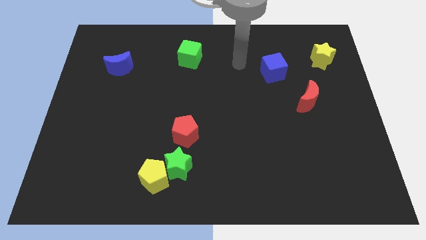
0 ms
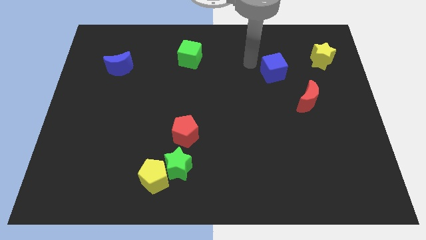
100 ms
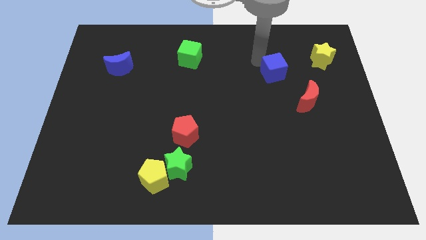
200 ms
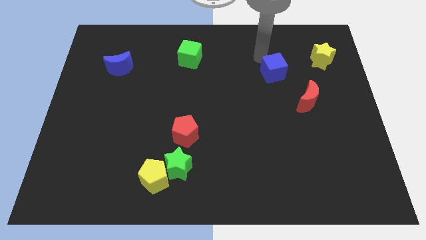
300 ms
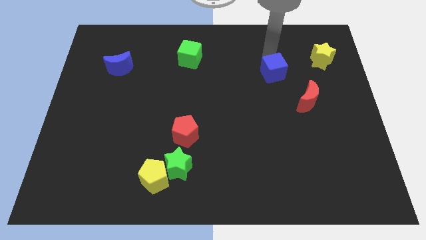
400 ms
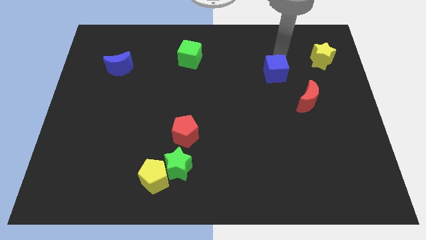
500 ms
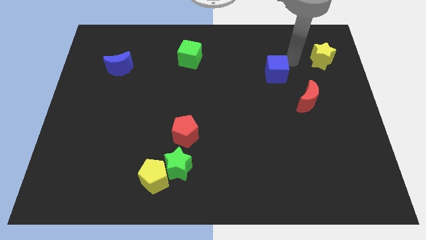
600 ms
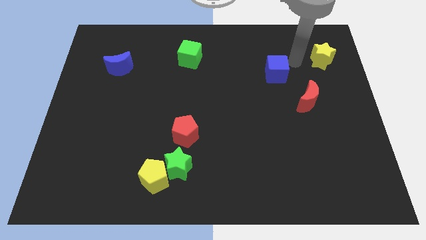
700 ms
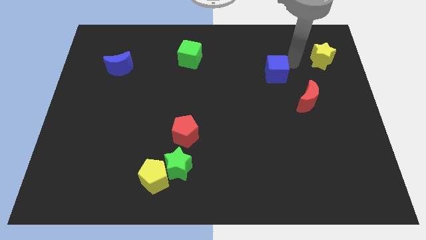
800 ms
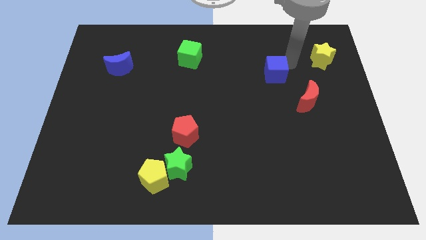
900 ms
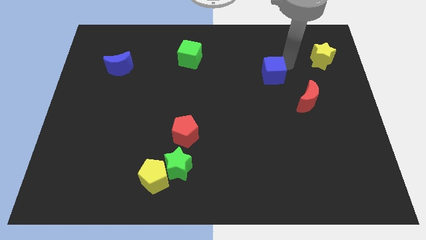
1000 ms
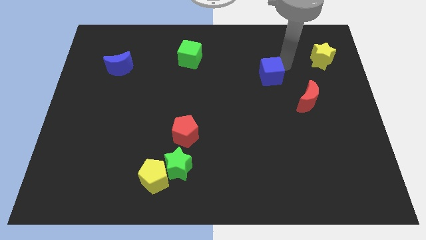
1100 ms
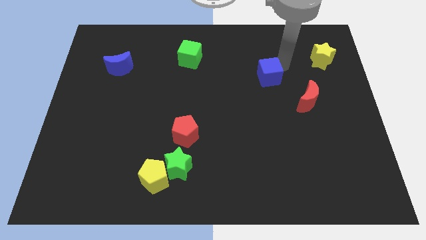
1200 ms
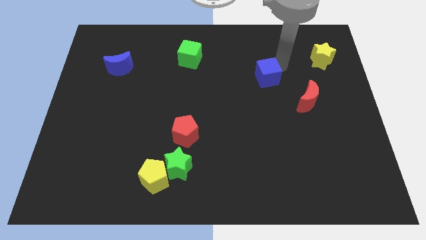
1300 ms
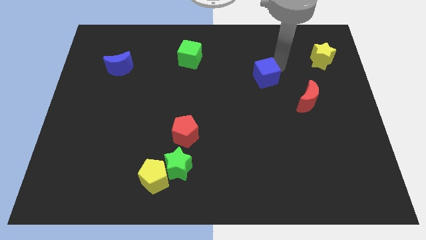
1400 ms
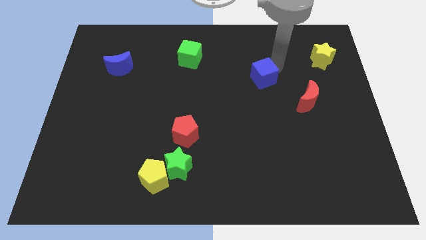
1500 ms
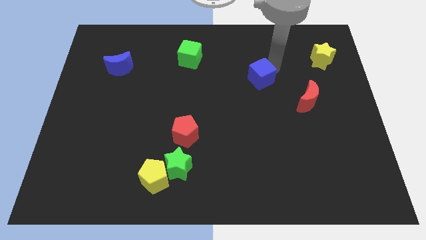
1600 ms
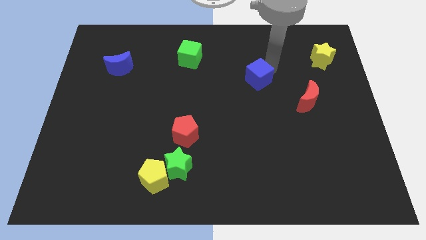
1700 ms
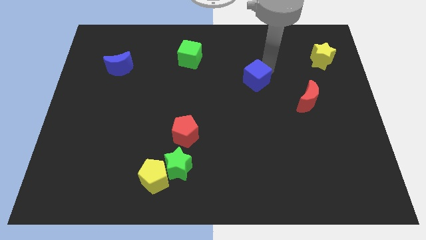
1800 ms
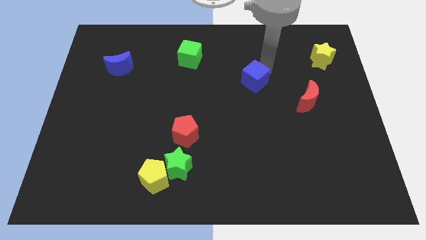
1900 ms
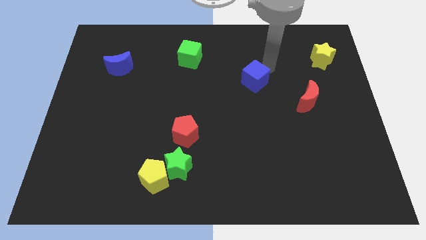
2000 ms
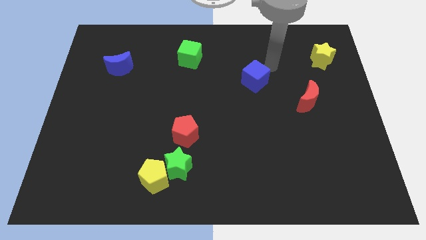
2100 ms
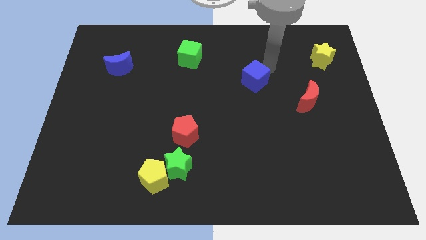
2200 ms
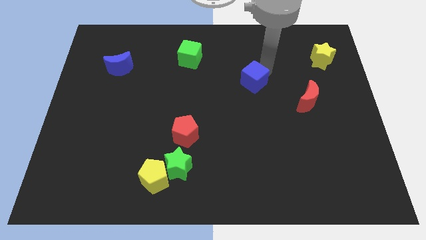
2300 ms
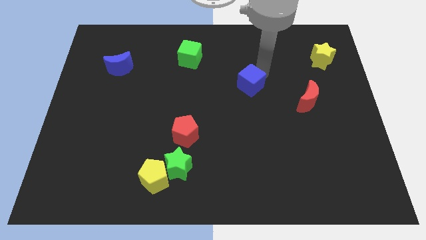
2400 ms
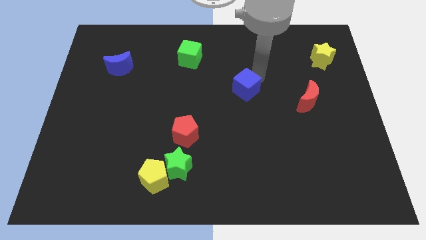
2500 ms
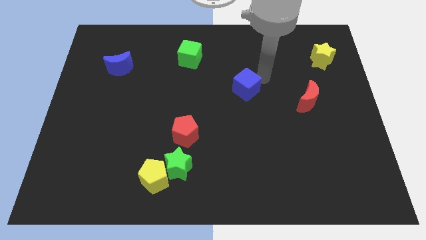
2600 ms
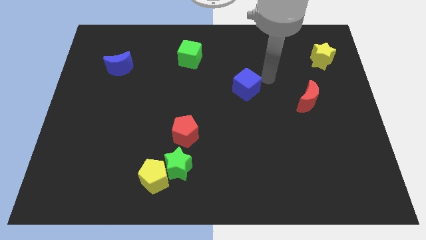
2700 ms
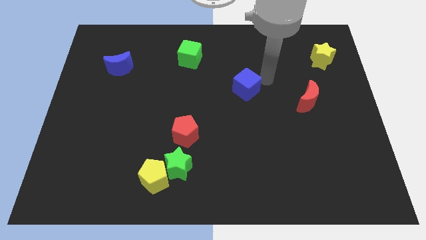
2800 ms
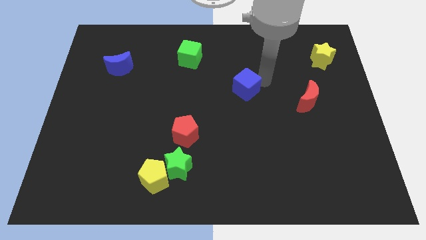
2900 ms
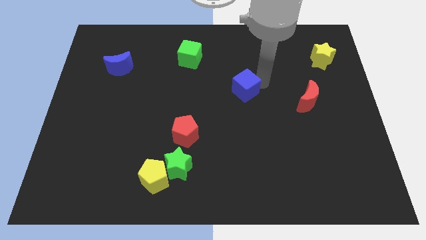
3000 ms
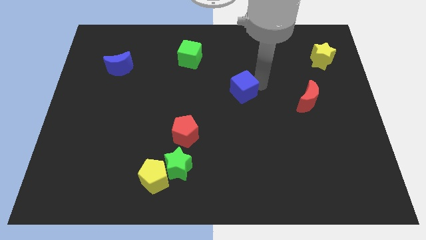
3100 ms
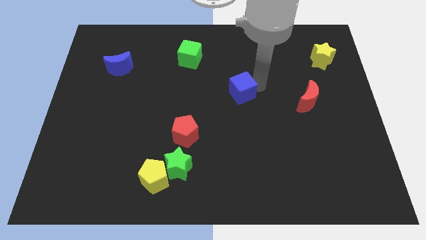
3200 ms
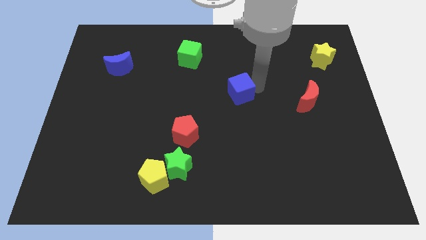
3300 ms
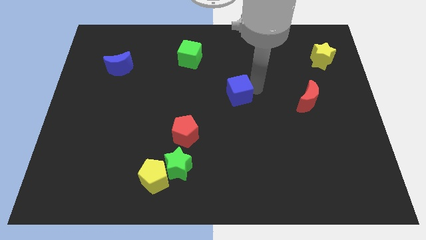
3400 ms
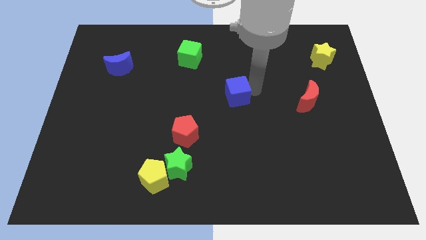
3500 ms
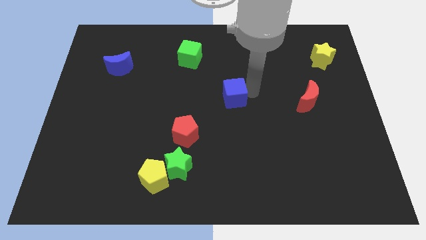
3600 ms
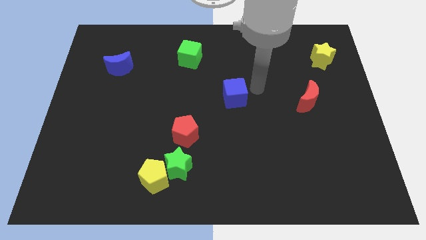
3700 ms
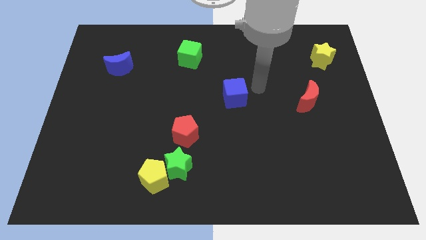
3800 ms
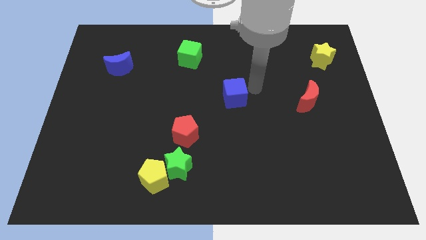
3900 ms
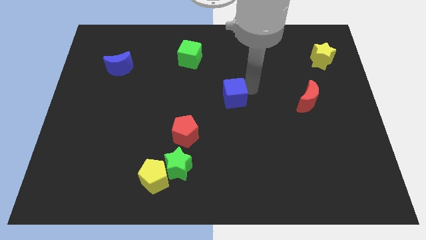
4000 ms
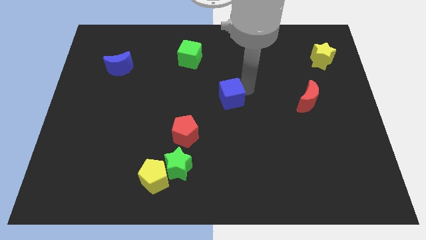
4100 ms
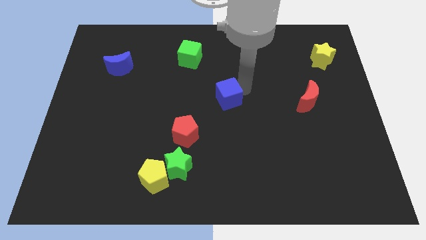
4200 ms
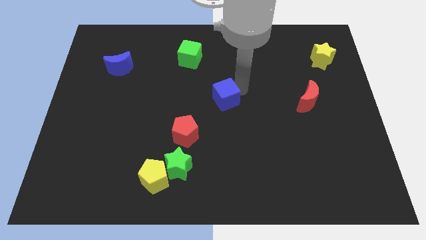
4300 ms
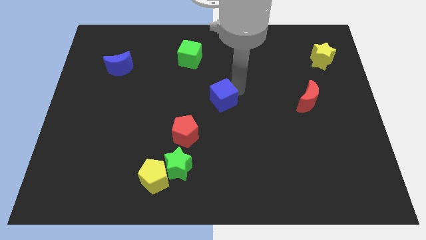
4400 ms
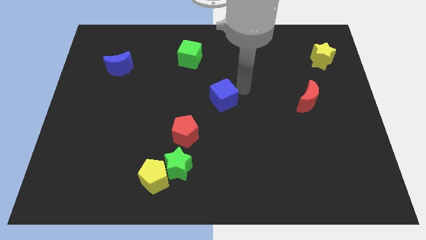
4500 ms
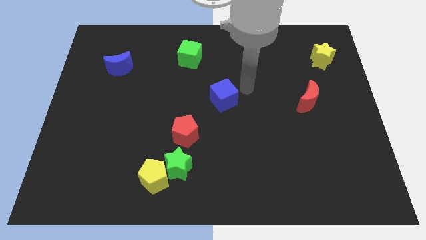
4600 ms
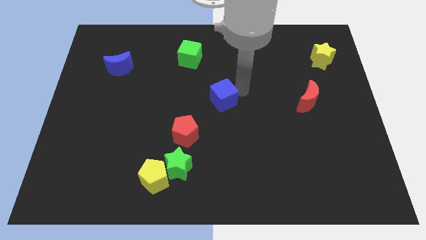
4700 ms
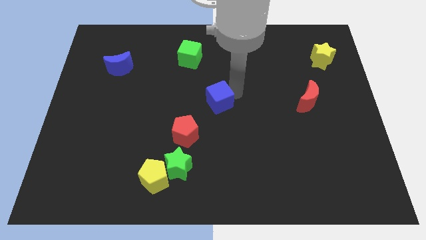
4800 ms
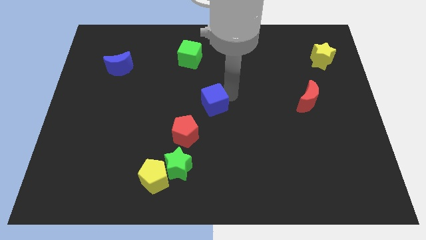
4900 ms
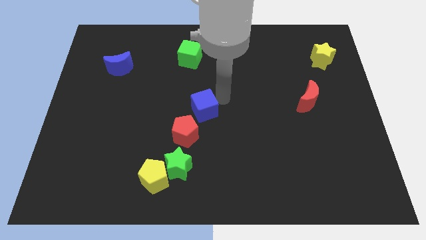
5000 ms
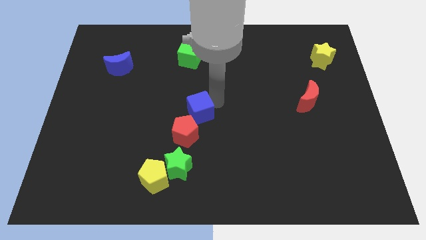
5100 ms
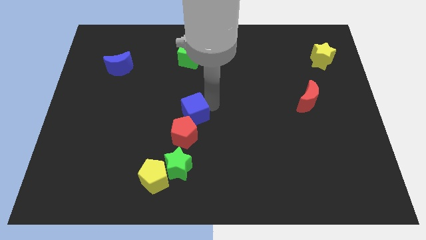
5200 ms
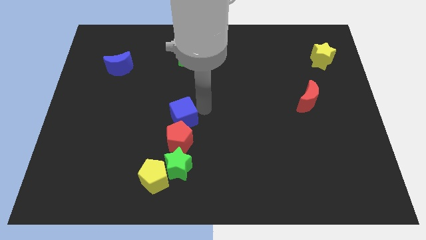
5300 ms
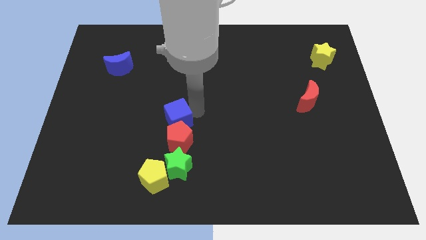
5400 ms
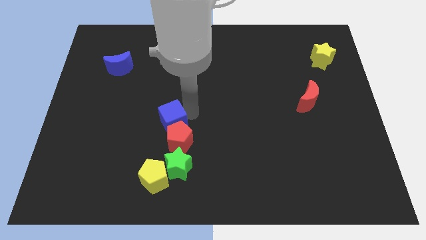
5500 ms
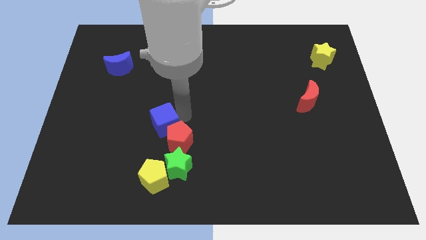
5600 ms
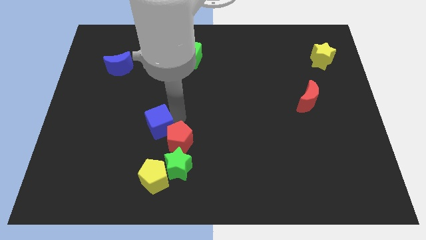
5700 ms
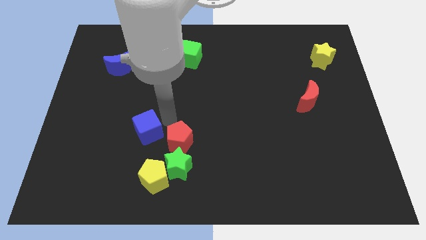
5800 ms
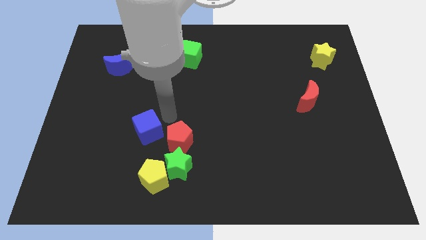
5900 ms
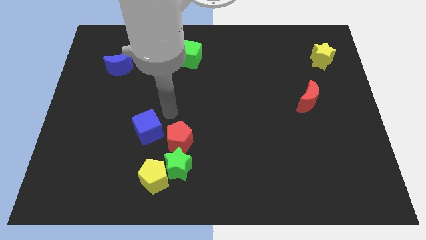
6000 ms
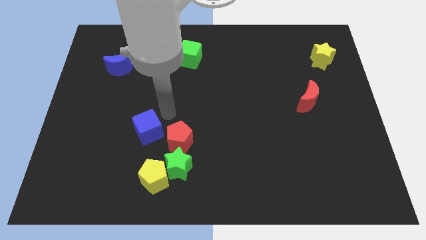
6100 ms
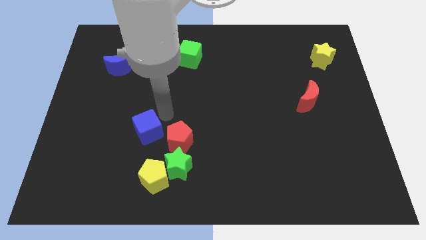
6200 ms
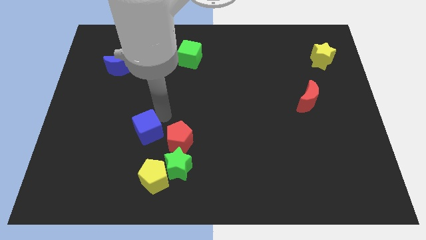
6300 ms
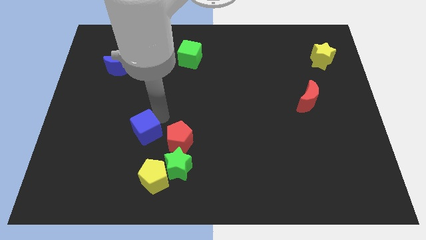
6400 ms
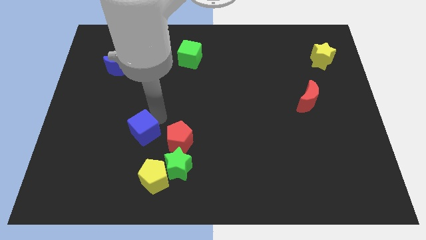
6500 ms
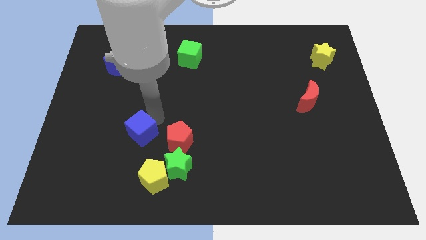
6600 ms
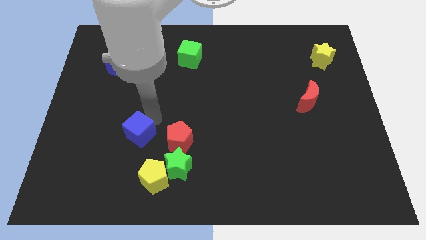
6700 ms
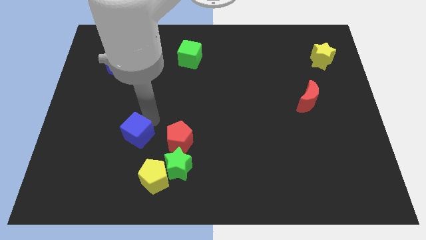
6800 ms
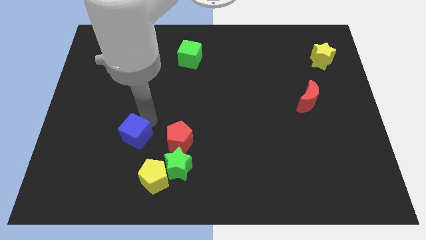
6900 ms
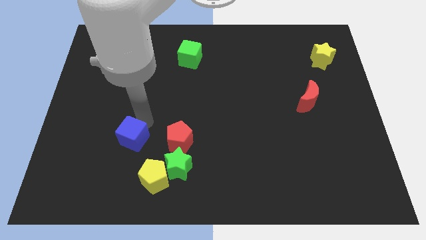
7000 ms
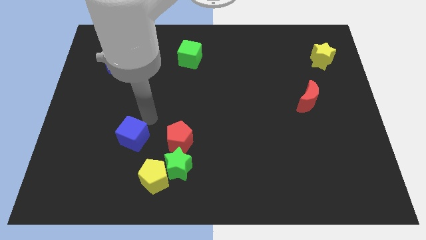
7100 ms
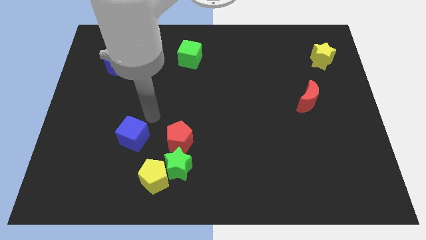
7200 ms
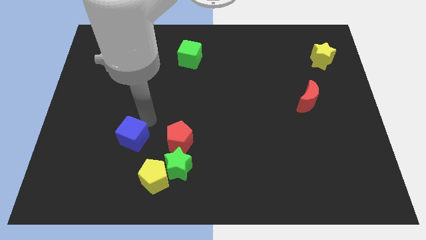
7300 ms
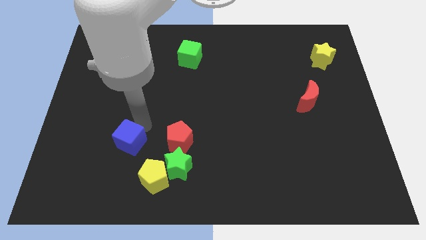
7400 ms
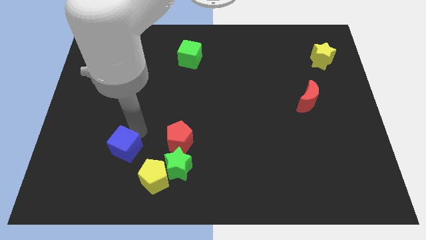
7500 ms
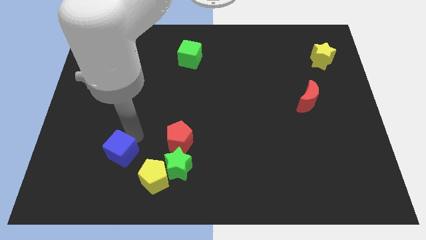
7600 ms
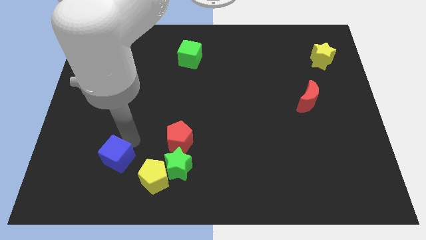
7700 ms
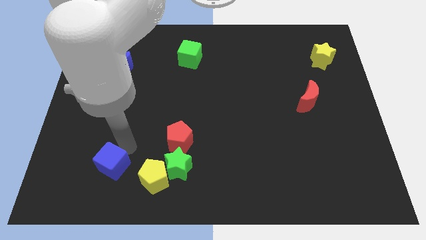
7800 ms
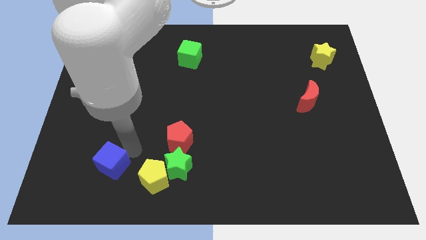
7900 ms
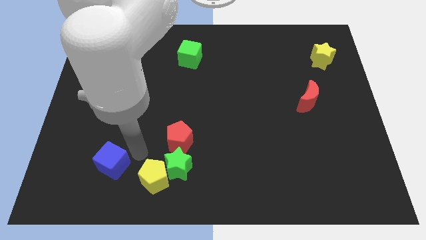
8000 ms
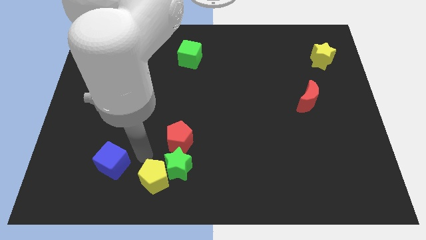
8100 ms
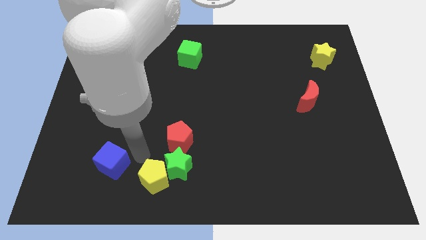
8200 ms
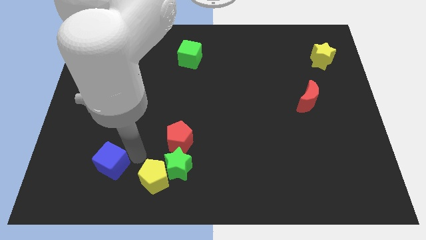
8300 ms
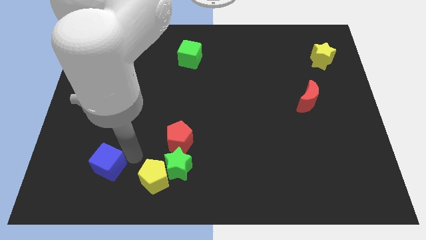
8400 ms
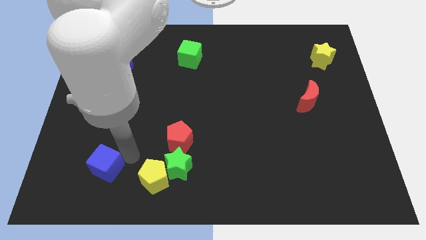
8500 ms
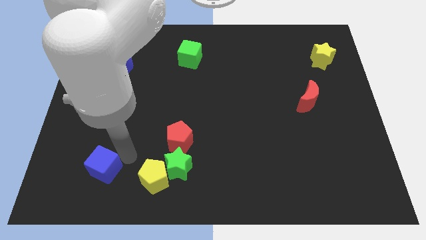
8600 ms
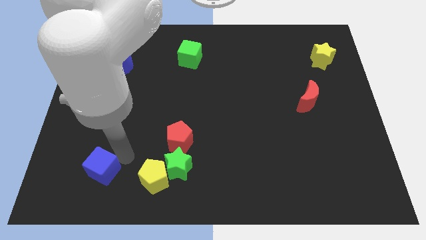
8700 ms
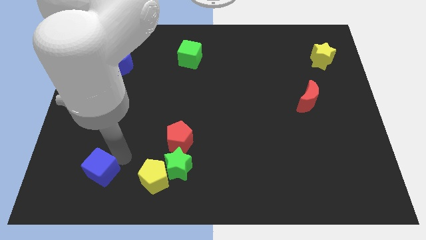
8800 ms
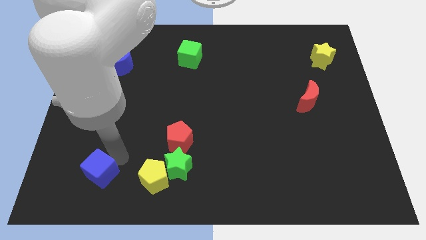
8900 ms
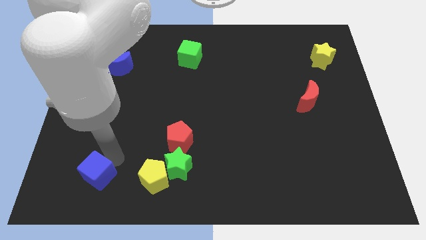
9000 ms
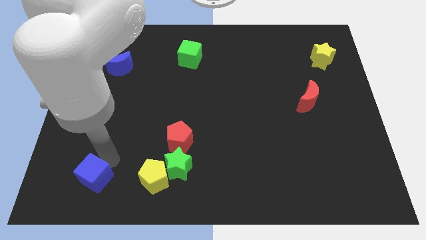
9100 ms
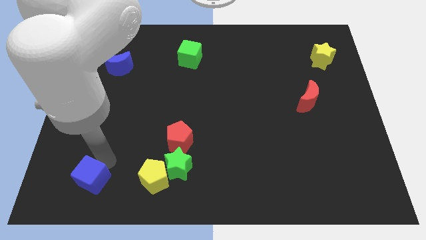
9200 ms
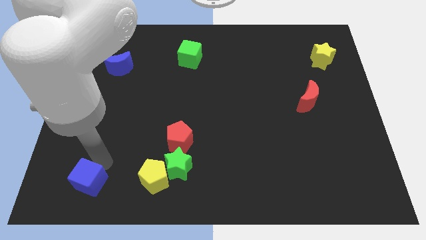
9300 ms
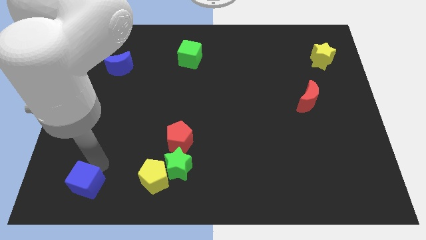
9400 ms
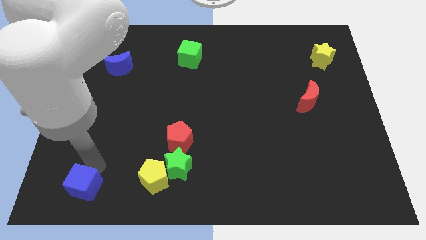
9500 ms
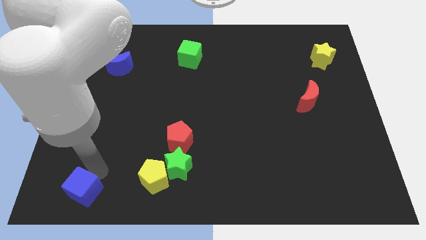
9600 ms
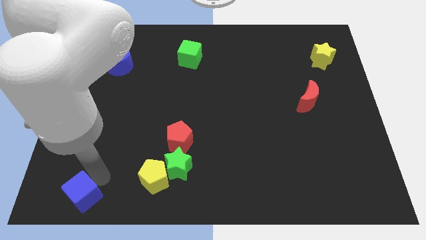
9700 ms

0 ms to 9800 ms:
push the blue cube to the lower left corner
